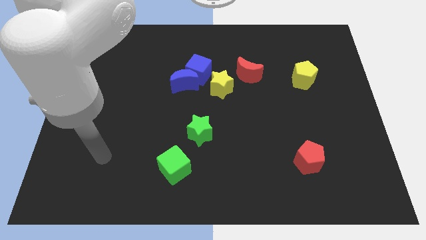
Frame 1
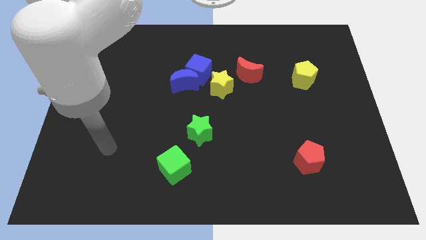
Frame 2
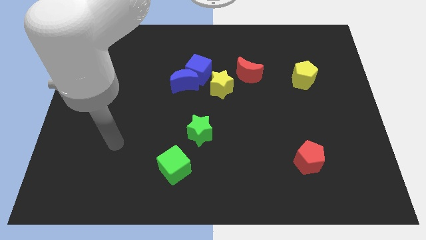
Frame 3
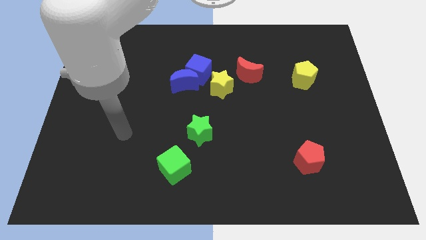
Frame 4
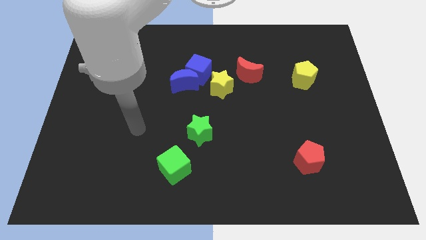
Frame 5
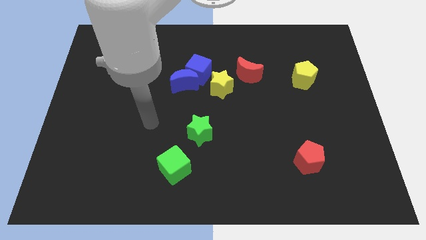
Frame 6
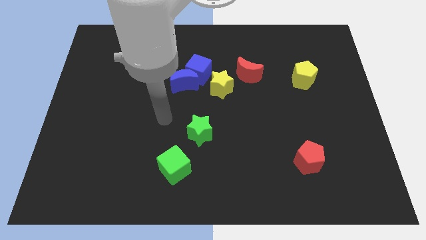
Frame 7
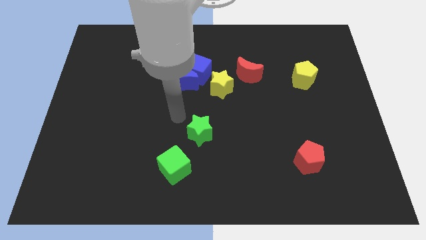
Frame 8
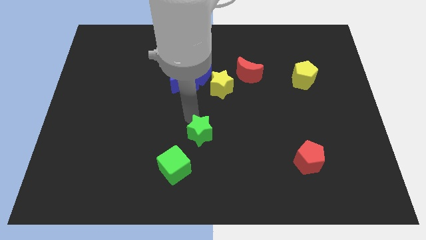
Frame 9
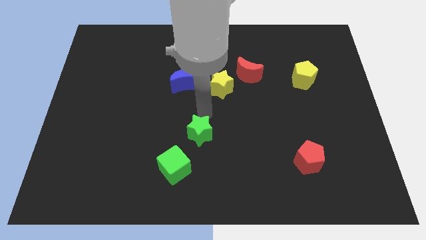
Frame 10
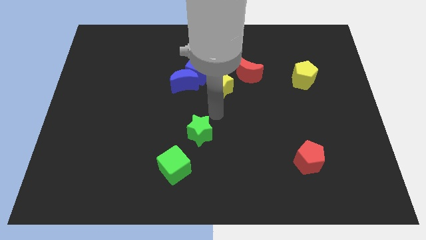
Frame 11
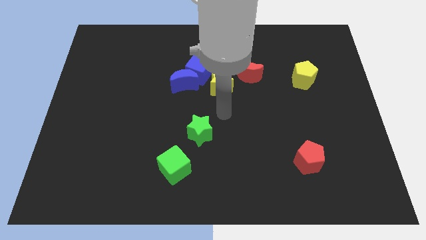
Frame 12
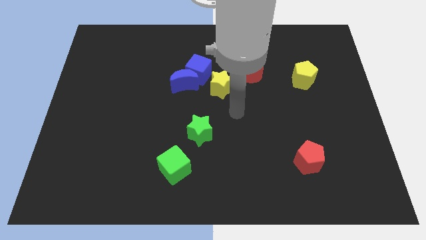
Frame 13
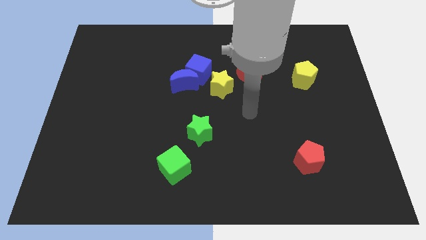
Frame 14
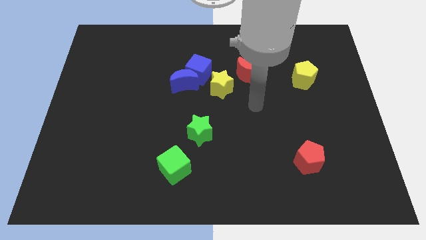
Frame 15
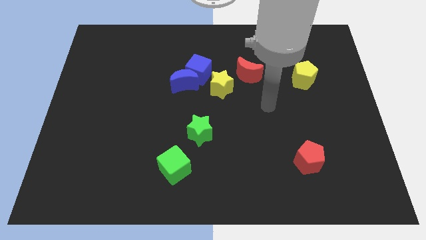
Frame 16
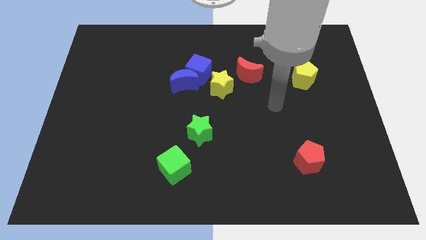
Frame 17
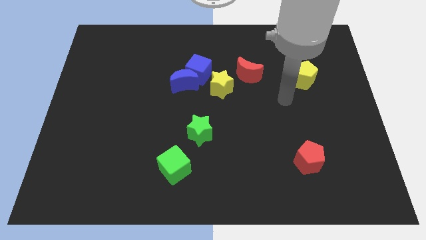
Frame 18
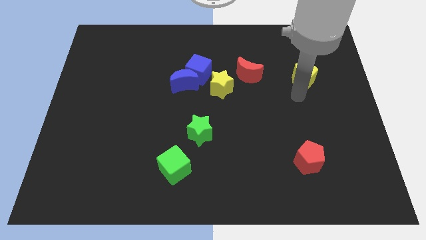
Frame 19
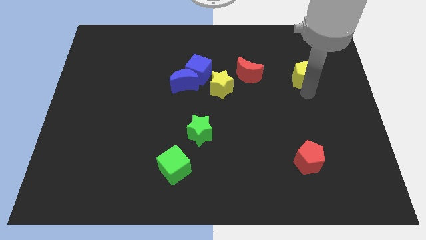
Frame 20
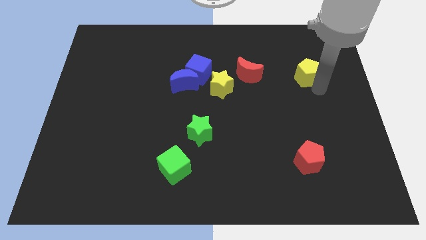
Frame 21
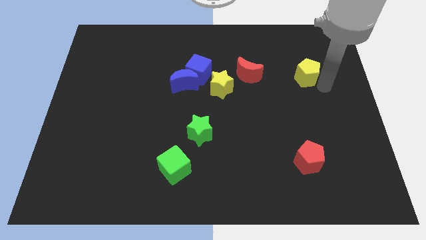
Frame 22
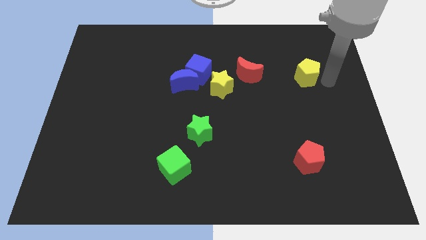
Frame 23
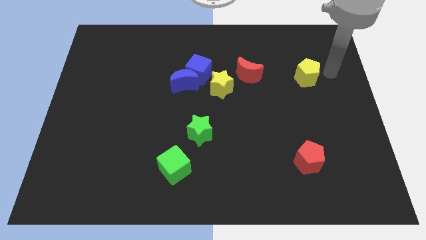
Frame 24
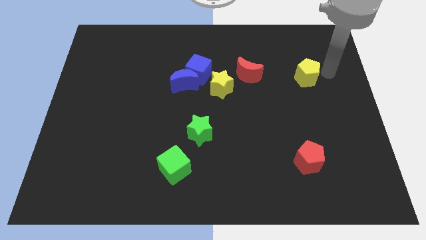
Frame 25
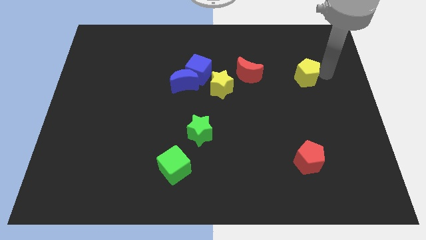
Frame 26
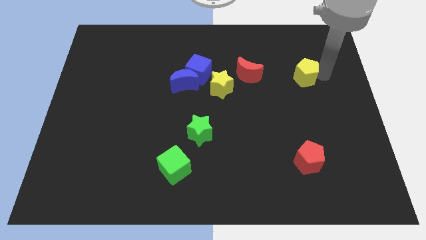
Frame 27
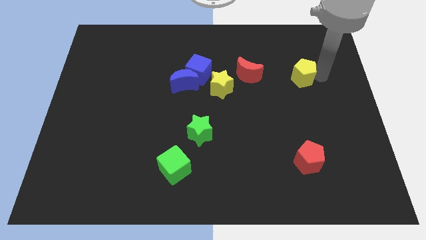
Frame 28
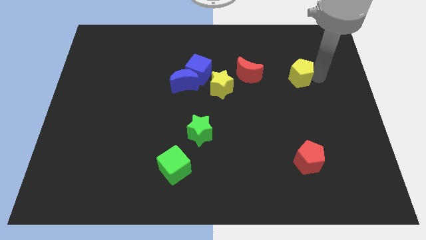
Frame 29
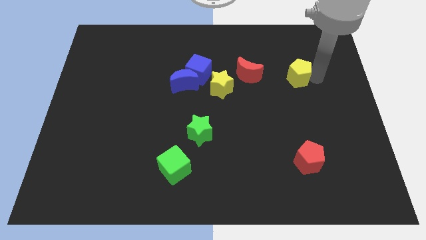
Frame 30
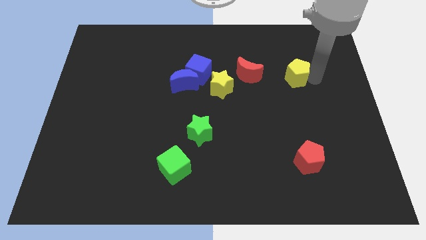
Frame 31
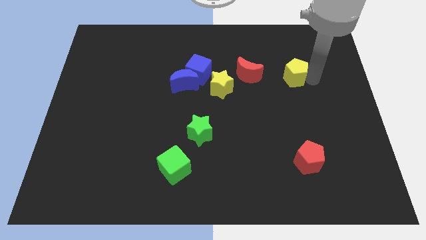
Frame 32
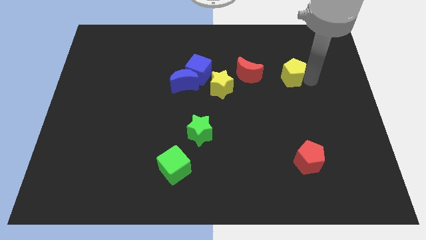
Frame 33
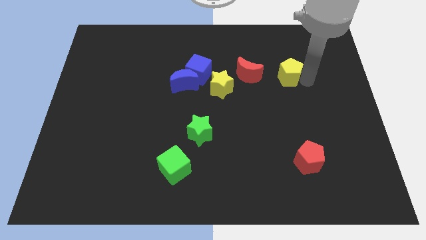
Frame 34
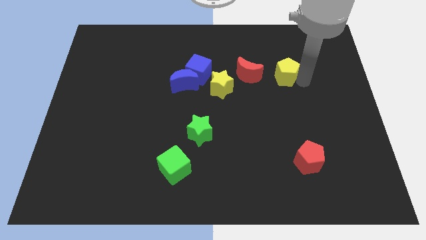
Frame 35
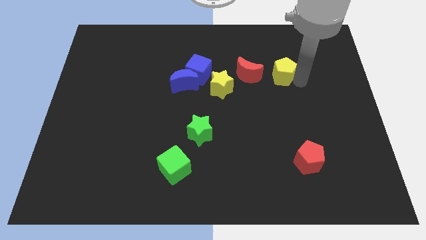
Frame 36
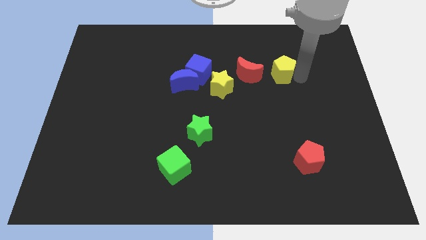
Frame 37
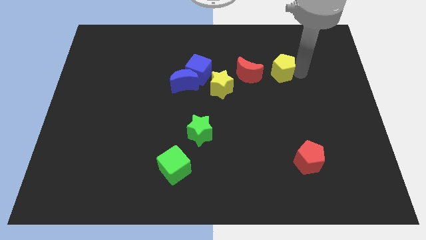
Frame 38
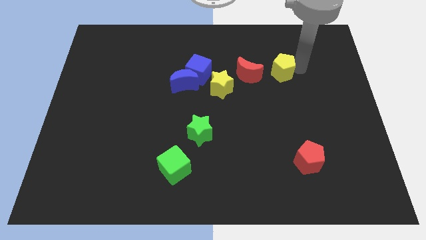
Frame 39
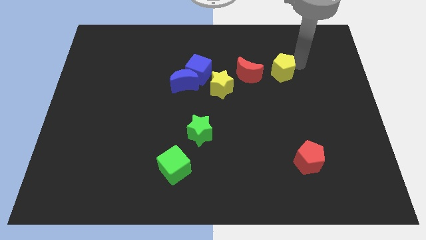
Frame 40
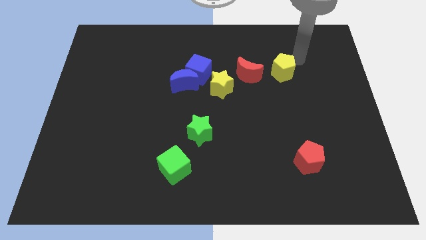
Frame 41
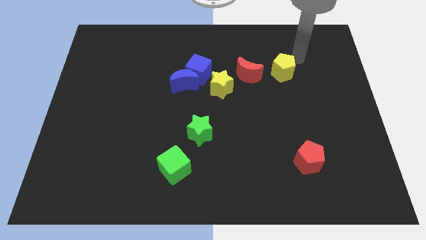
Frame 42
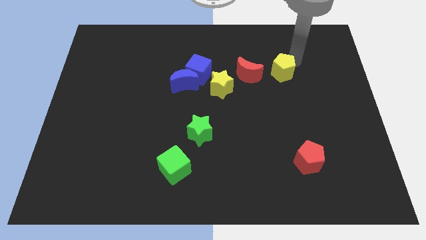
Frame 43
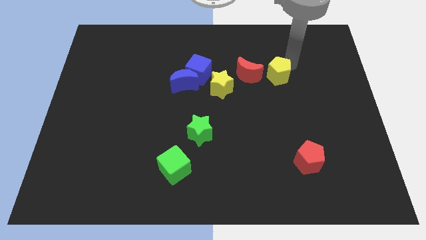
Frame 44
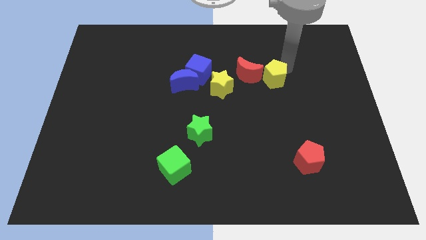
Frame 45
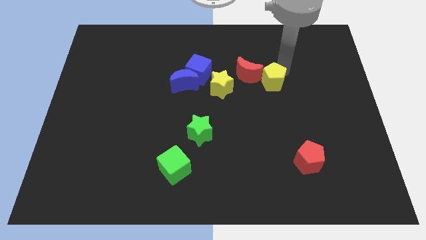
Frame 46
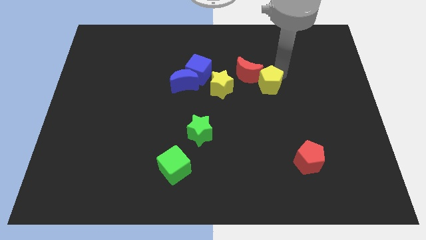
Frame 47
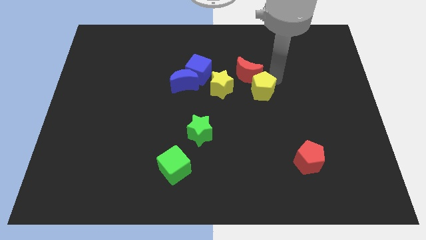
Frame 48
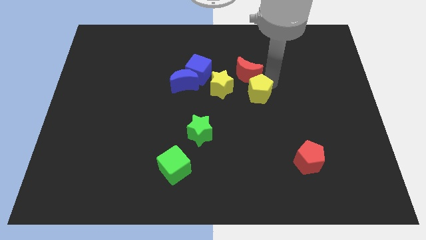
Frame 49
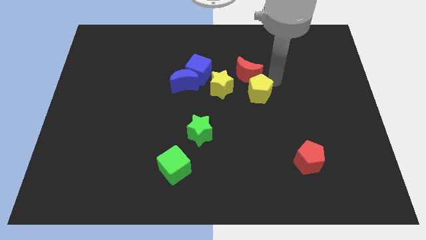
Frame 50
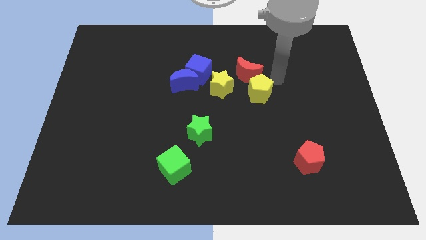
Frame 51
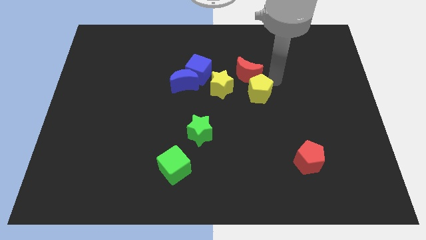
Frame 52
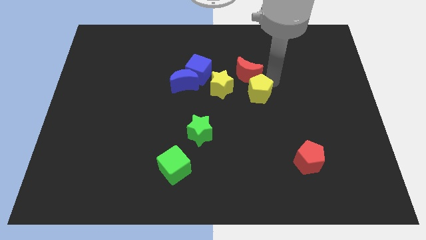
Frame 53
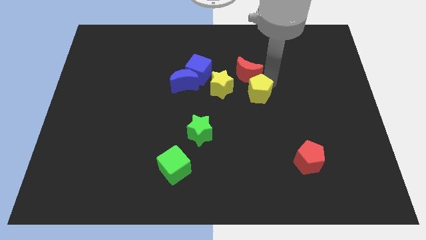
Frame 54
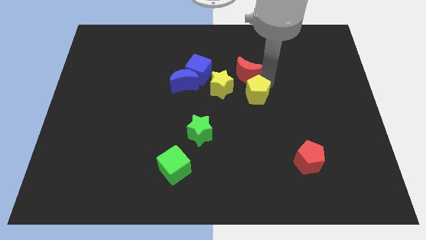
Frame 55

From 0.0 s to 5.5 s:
put the yellow pentagon diagonally down and to the right of the yellow star

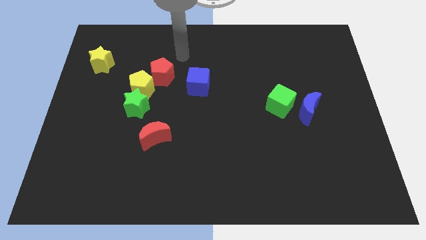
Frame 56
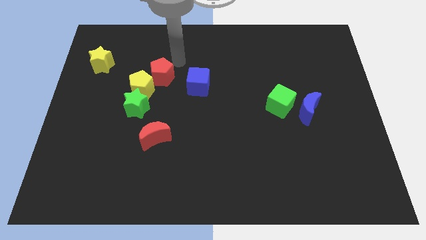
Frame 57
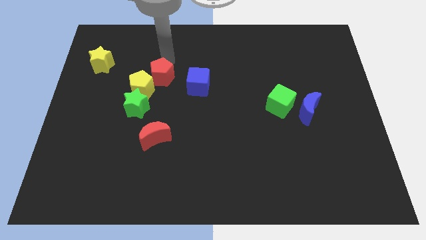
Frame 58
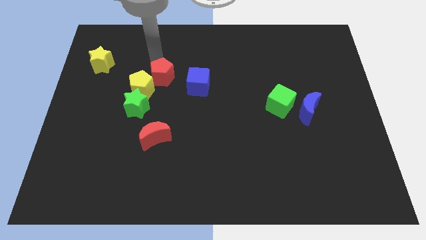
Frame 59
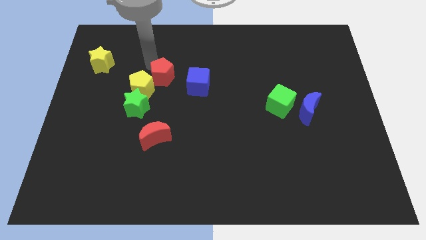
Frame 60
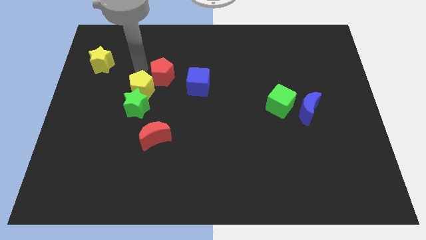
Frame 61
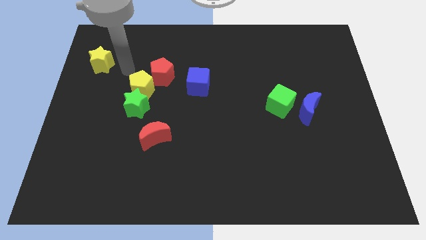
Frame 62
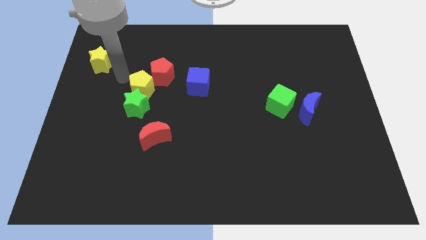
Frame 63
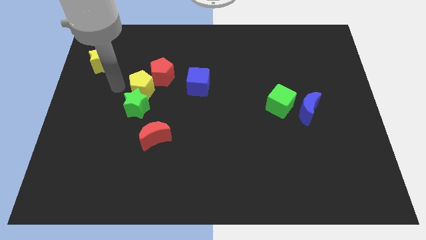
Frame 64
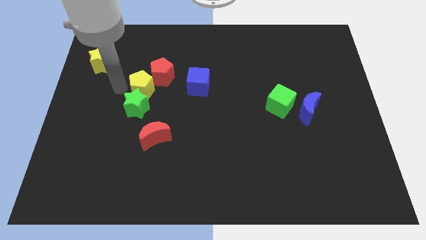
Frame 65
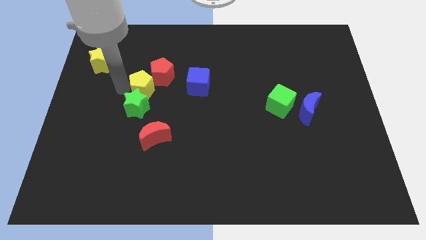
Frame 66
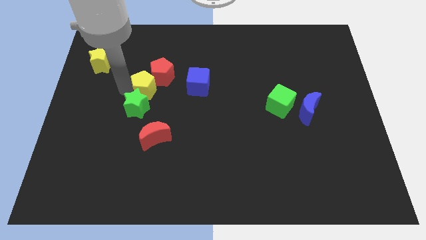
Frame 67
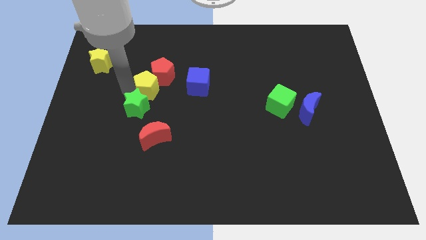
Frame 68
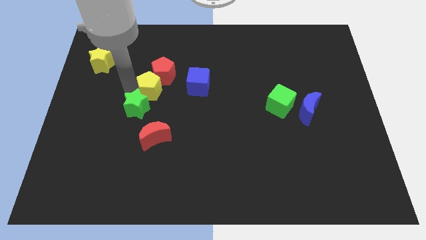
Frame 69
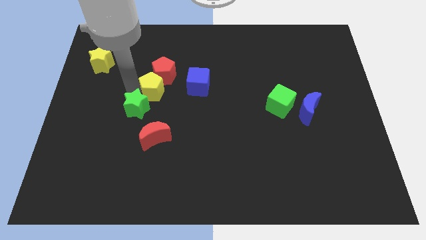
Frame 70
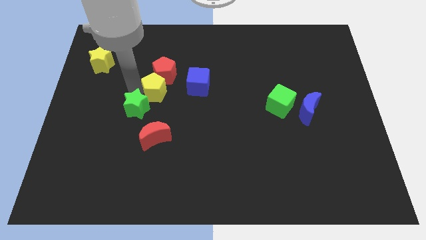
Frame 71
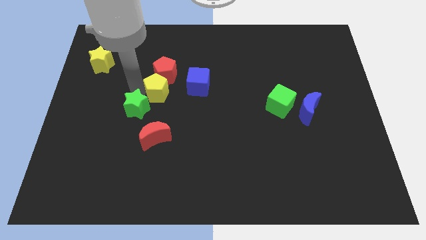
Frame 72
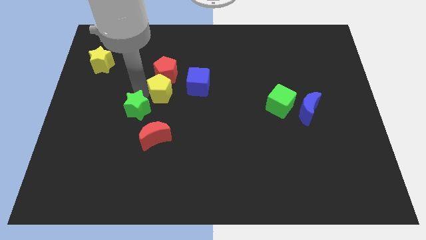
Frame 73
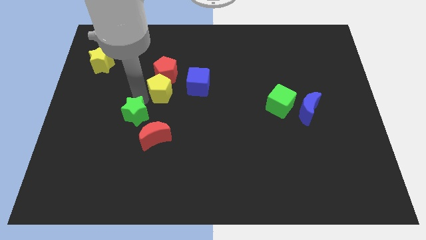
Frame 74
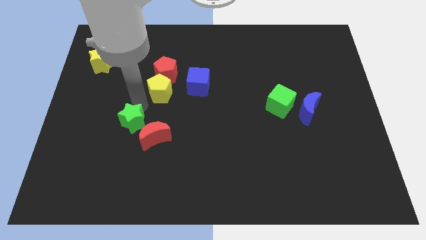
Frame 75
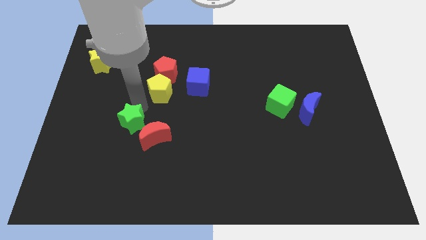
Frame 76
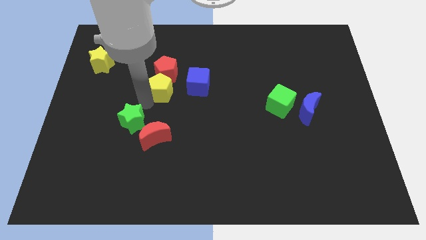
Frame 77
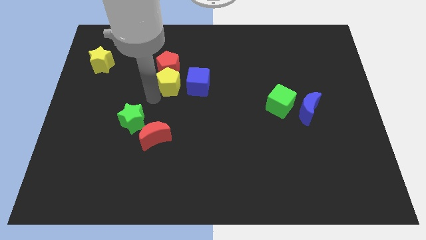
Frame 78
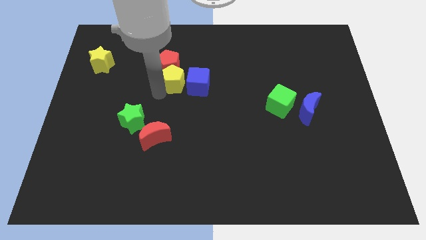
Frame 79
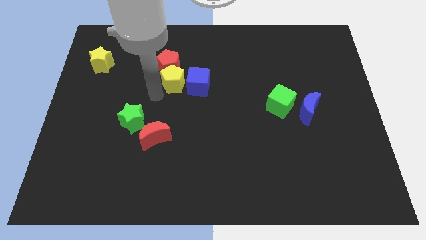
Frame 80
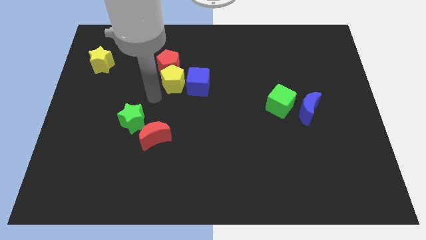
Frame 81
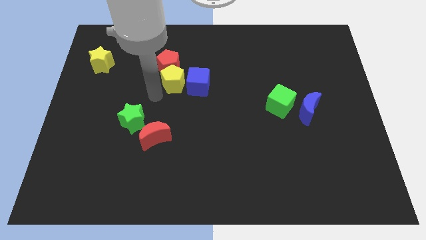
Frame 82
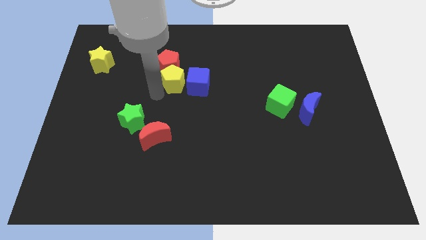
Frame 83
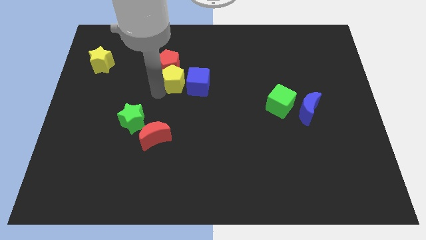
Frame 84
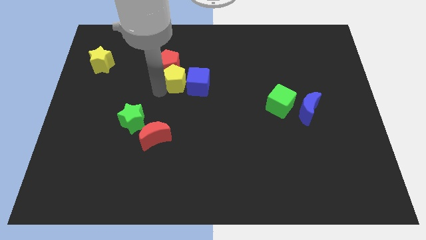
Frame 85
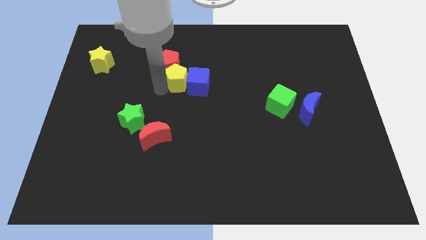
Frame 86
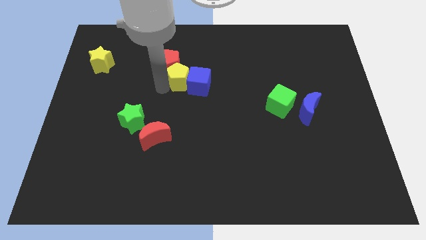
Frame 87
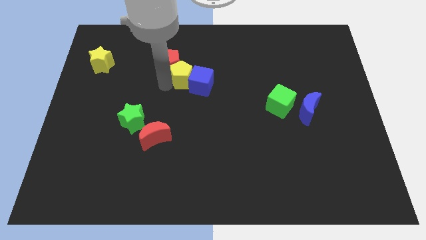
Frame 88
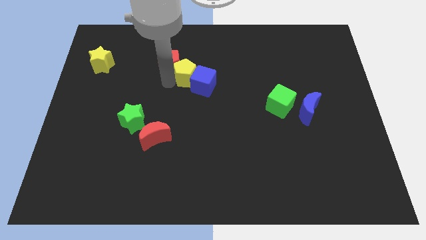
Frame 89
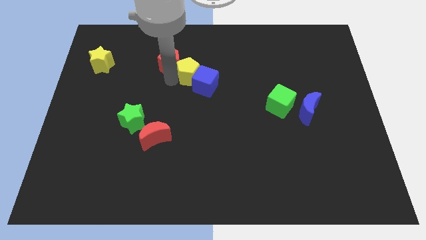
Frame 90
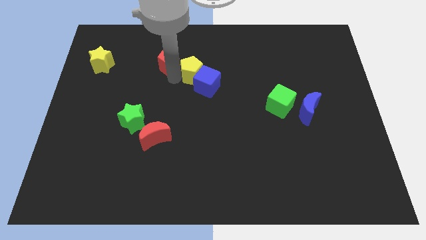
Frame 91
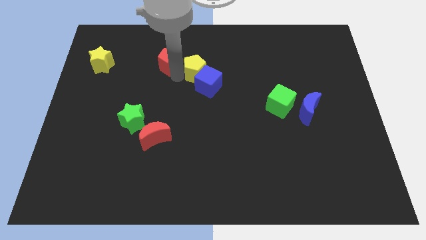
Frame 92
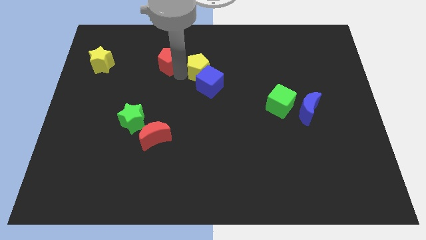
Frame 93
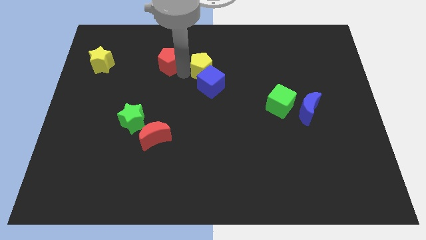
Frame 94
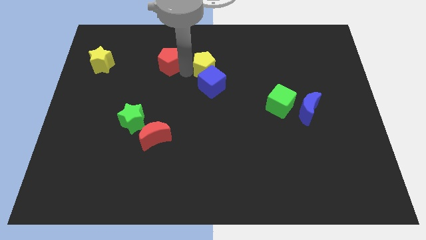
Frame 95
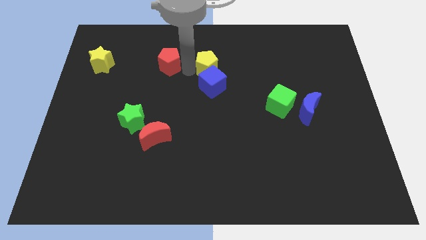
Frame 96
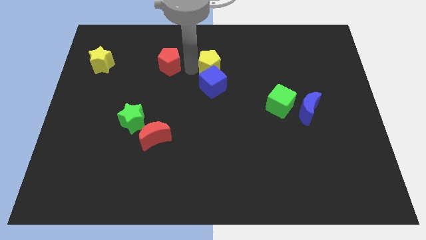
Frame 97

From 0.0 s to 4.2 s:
put the yellow pentagon to the top right of the blue cube
